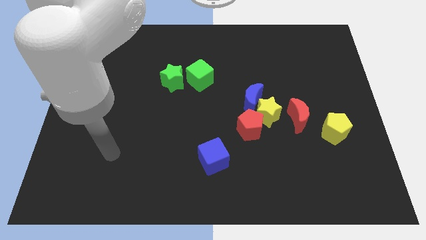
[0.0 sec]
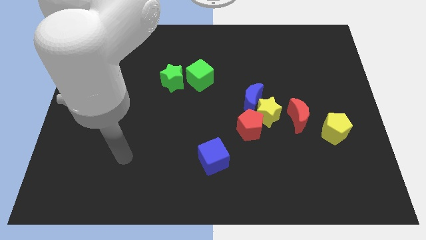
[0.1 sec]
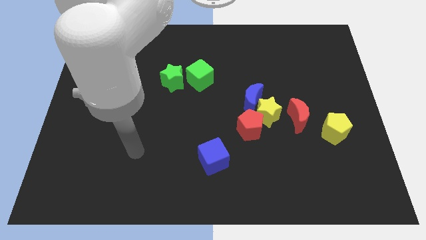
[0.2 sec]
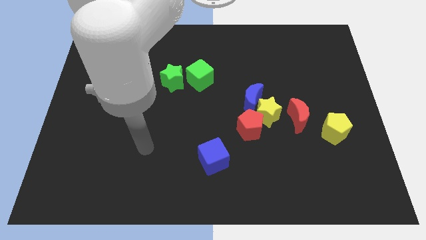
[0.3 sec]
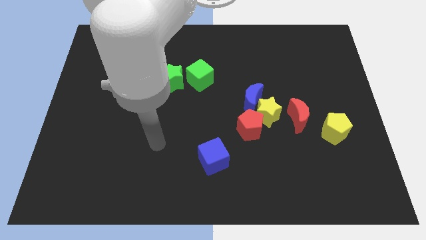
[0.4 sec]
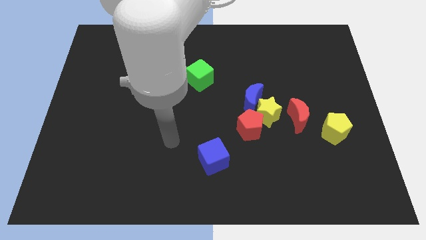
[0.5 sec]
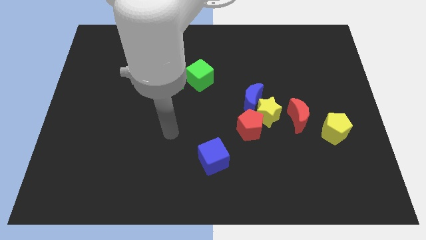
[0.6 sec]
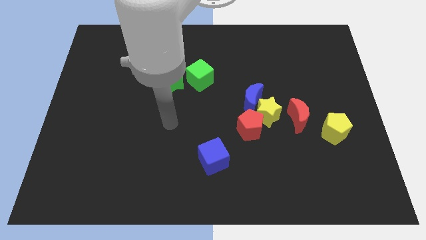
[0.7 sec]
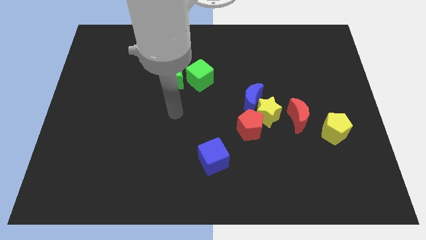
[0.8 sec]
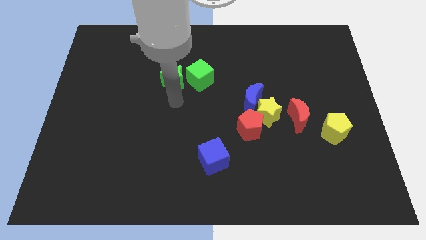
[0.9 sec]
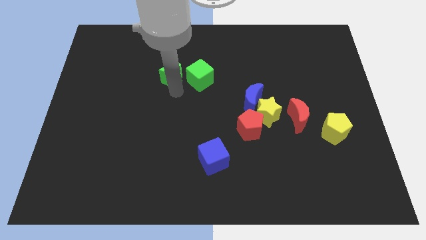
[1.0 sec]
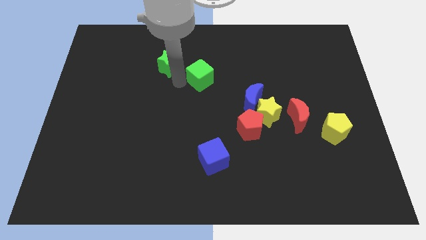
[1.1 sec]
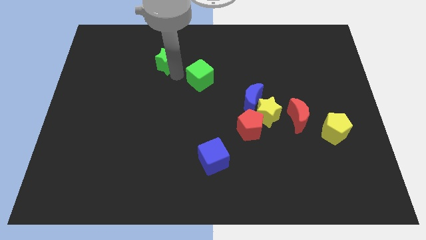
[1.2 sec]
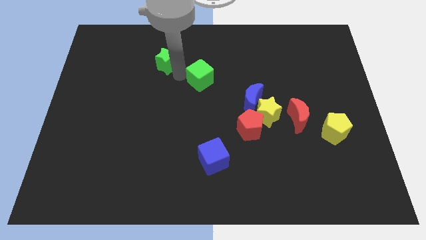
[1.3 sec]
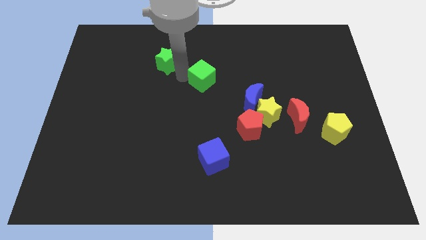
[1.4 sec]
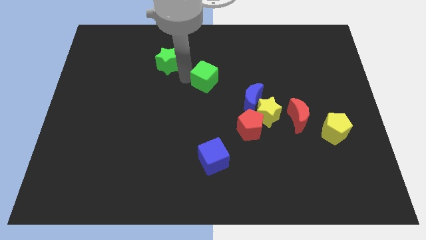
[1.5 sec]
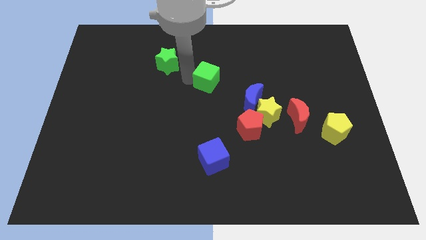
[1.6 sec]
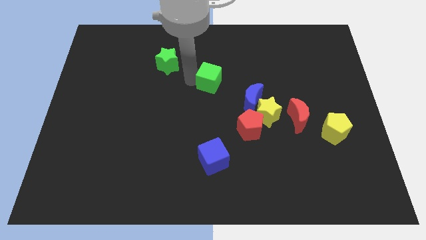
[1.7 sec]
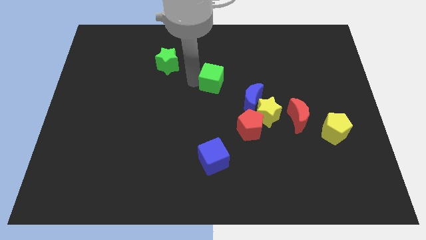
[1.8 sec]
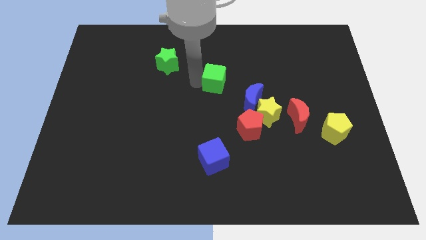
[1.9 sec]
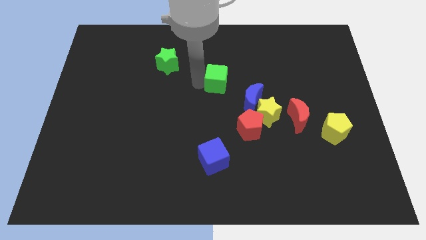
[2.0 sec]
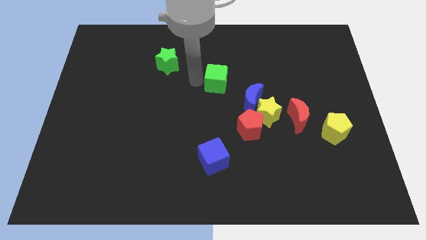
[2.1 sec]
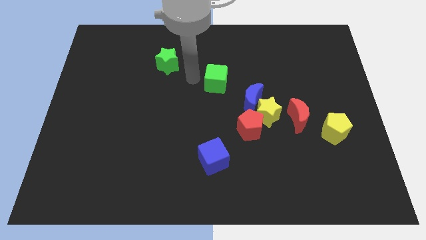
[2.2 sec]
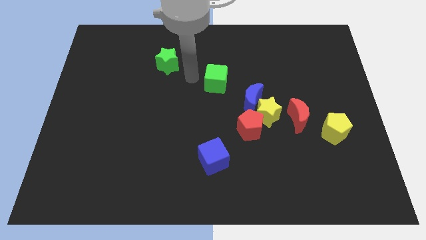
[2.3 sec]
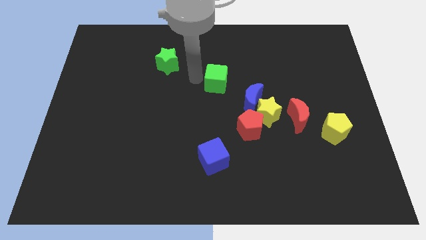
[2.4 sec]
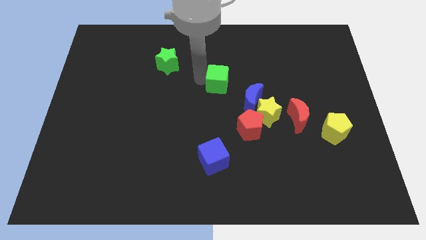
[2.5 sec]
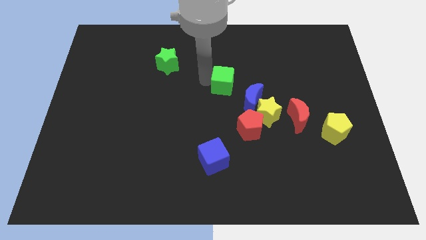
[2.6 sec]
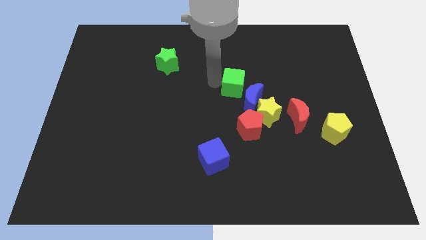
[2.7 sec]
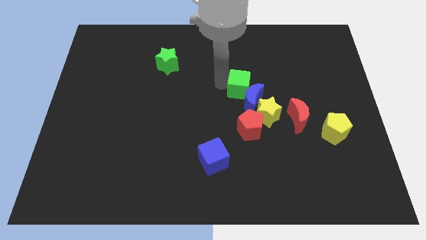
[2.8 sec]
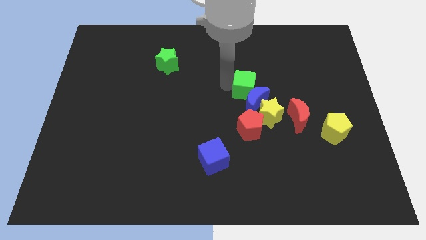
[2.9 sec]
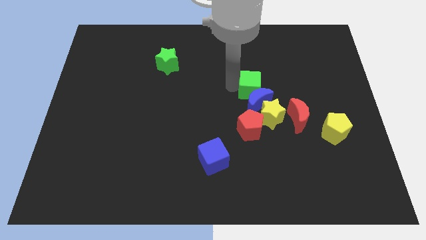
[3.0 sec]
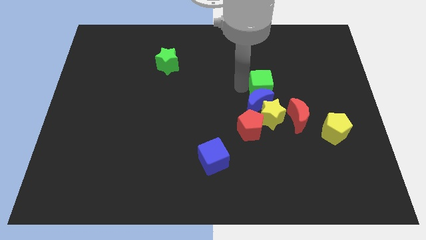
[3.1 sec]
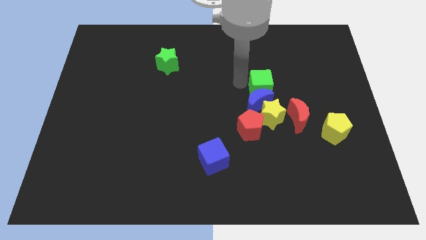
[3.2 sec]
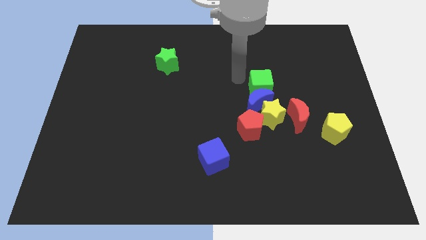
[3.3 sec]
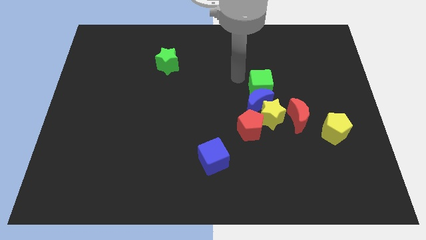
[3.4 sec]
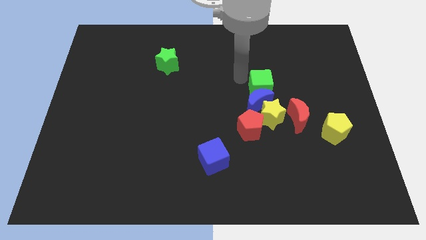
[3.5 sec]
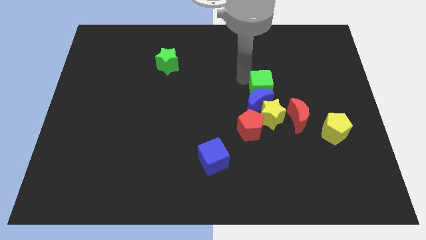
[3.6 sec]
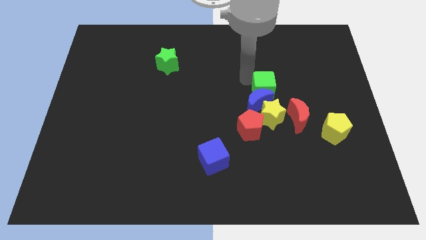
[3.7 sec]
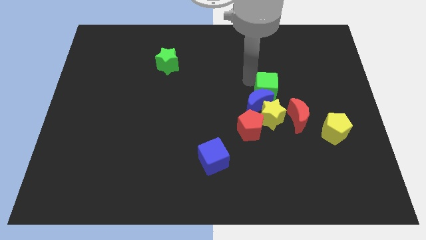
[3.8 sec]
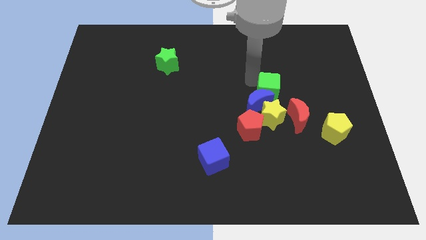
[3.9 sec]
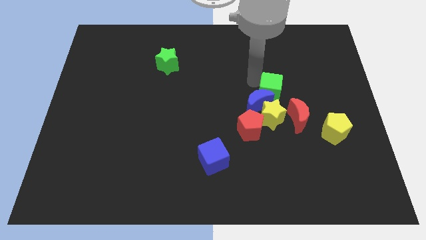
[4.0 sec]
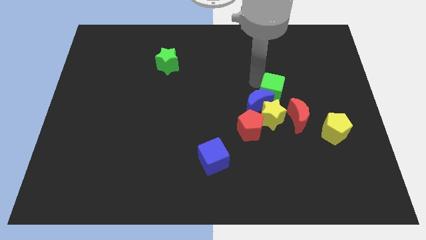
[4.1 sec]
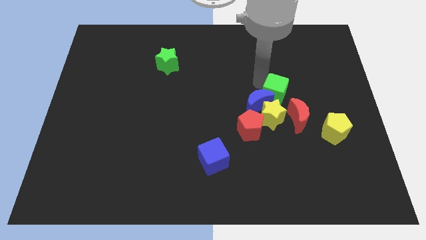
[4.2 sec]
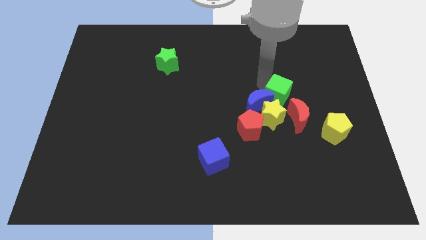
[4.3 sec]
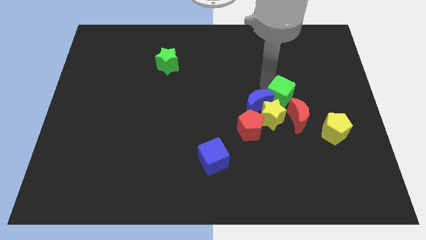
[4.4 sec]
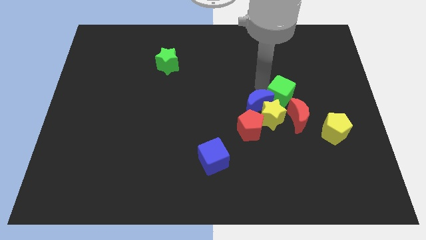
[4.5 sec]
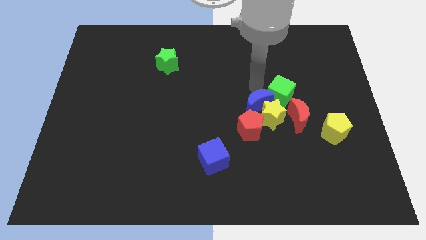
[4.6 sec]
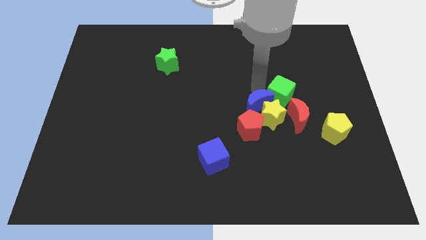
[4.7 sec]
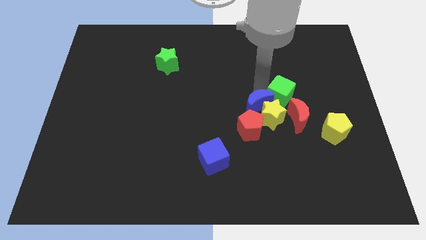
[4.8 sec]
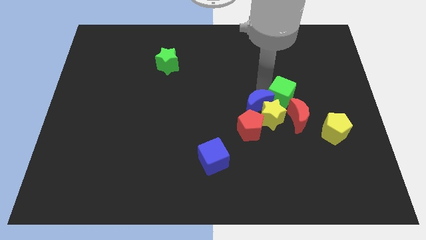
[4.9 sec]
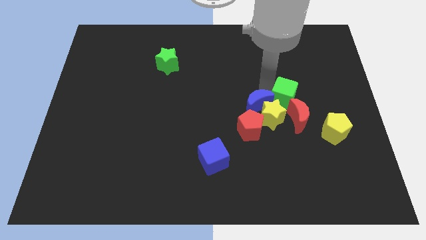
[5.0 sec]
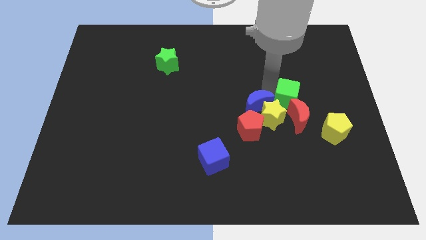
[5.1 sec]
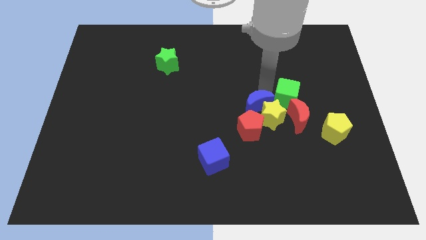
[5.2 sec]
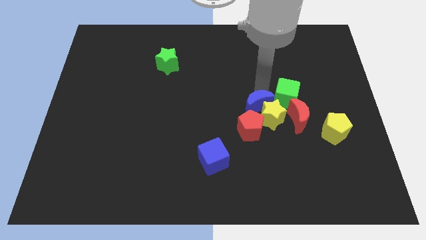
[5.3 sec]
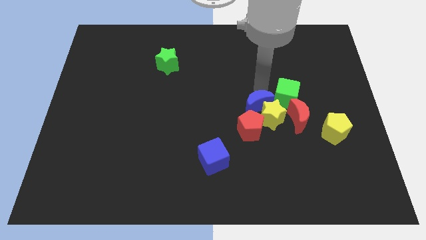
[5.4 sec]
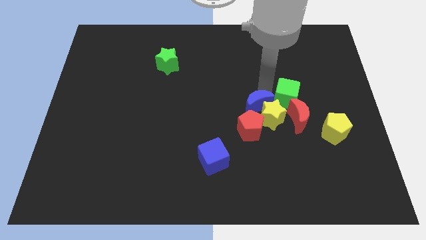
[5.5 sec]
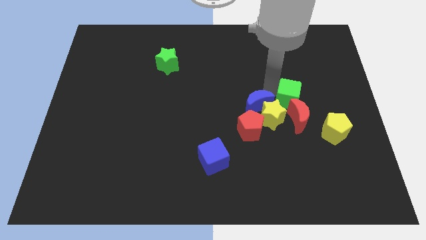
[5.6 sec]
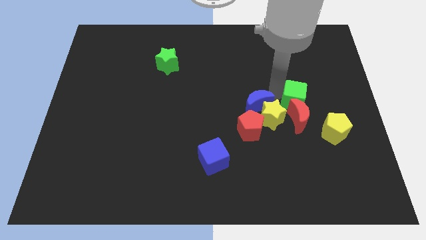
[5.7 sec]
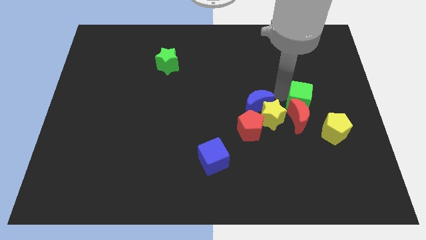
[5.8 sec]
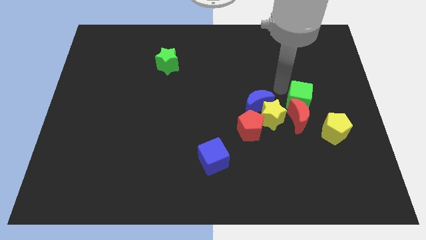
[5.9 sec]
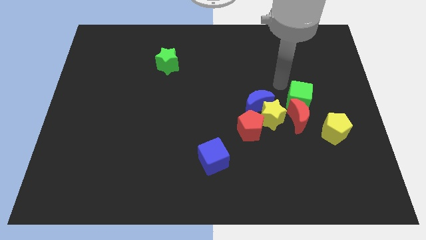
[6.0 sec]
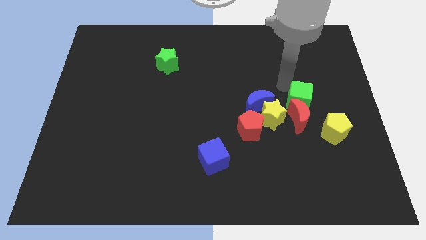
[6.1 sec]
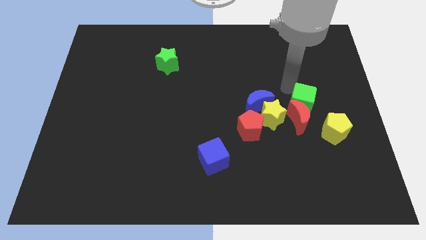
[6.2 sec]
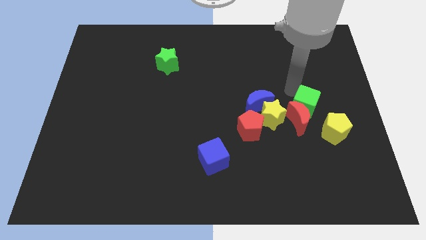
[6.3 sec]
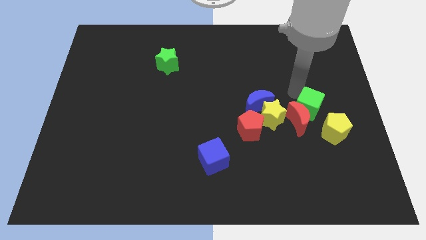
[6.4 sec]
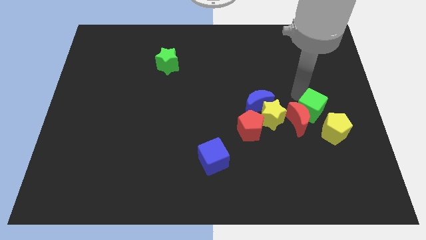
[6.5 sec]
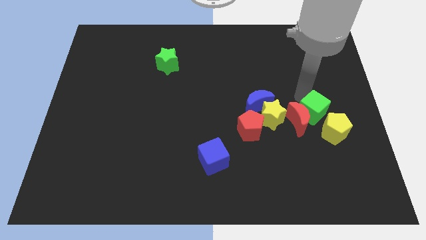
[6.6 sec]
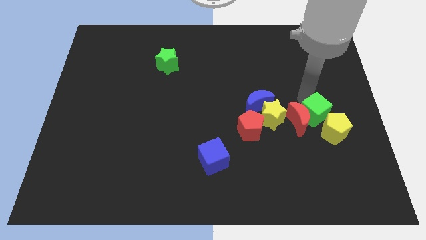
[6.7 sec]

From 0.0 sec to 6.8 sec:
put the green cube close to the yellow pentagon

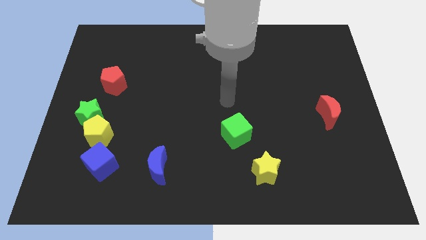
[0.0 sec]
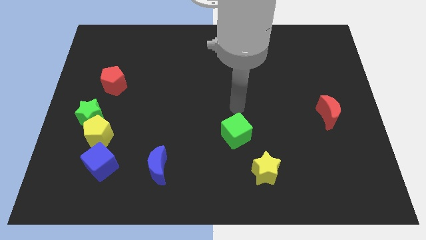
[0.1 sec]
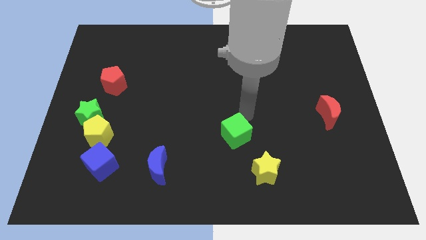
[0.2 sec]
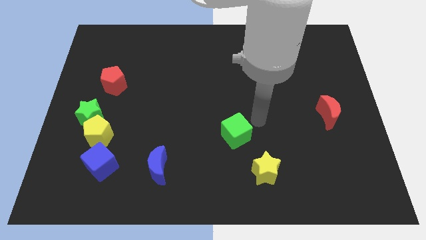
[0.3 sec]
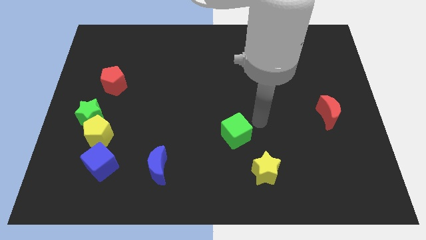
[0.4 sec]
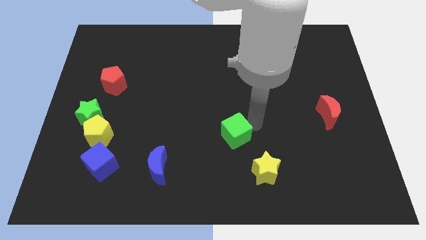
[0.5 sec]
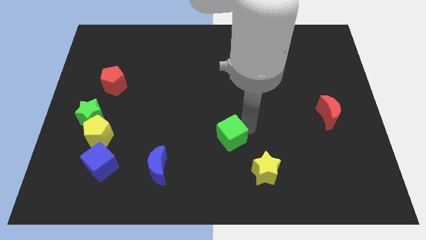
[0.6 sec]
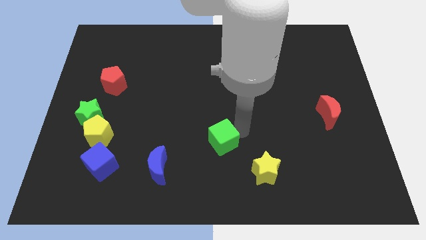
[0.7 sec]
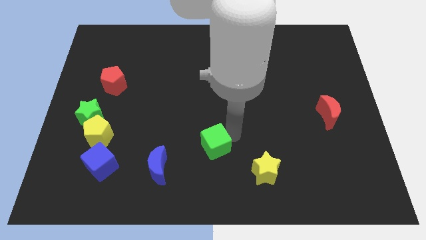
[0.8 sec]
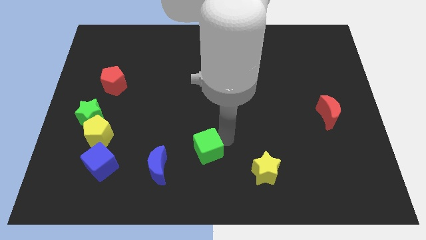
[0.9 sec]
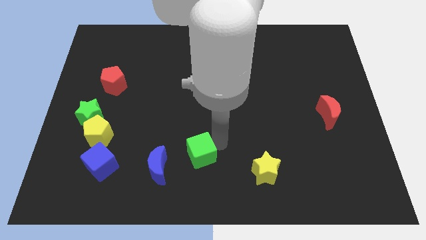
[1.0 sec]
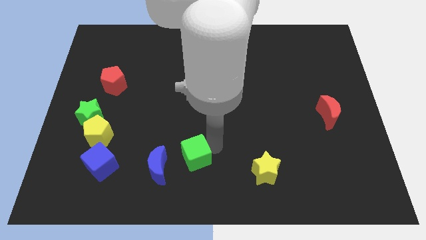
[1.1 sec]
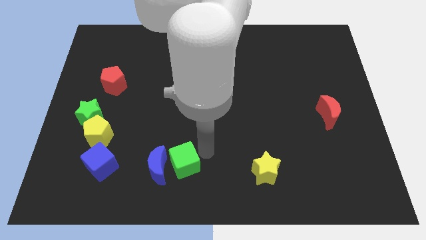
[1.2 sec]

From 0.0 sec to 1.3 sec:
move the green cube towards the blue moon
